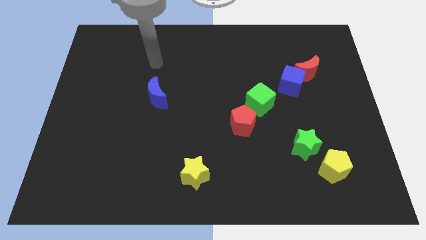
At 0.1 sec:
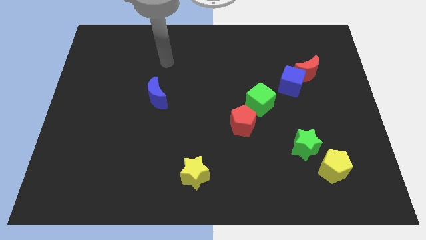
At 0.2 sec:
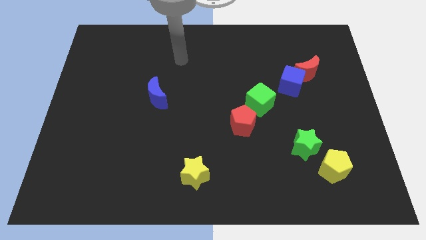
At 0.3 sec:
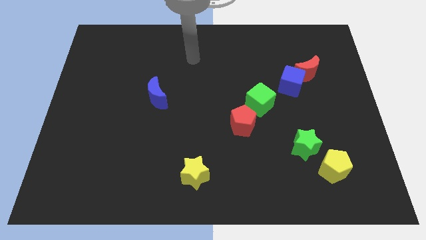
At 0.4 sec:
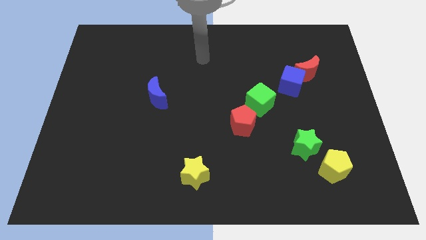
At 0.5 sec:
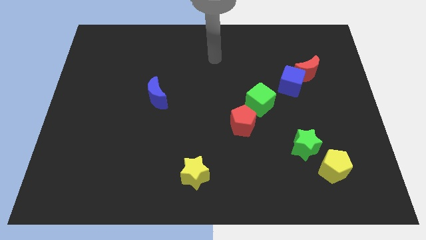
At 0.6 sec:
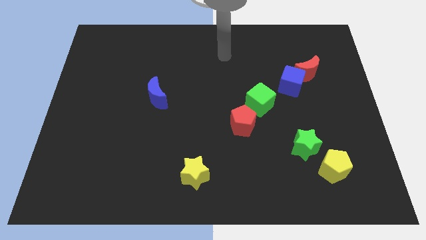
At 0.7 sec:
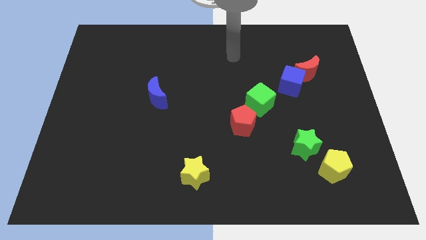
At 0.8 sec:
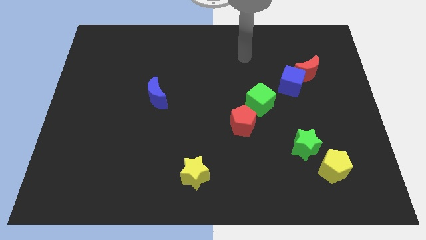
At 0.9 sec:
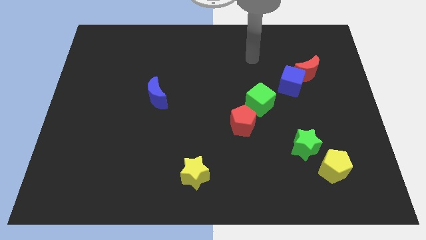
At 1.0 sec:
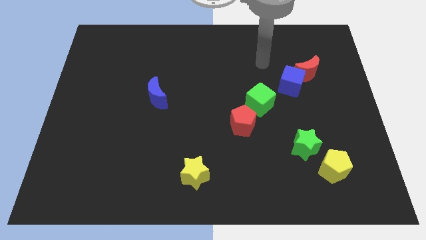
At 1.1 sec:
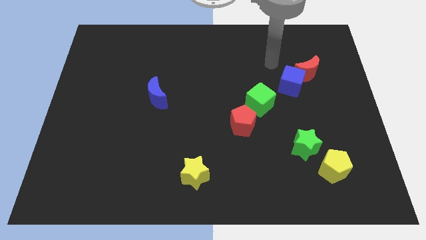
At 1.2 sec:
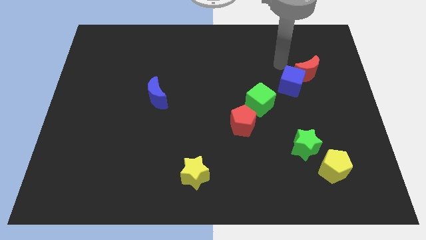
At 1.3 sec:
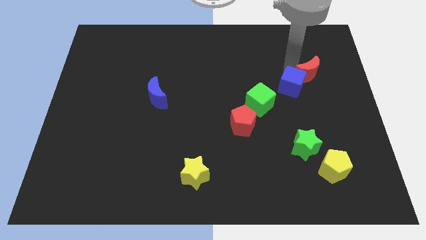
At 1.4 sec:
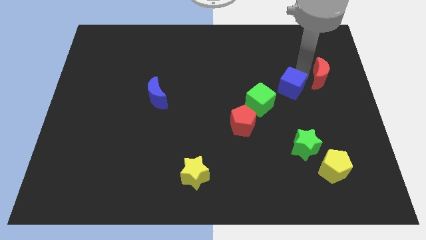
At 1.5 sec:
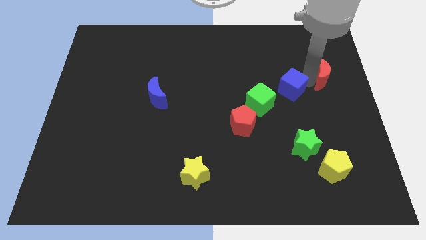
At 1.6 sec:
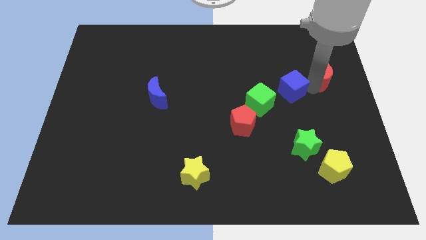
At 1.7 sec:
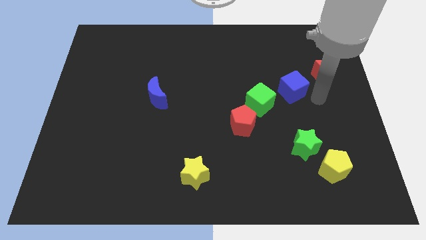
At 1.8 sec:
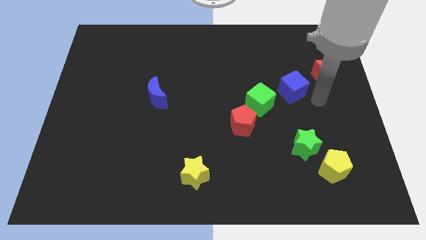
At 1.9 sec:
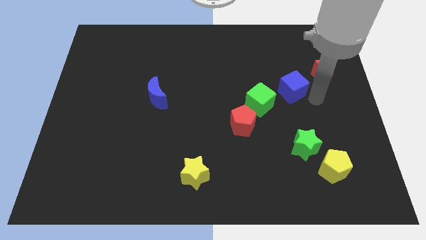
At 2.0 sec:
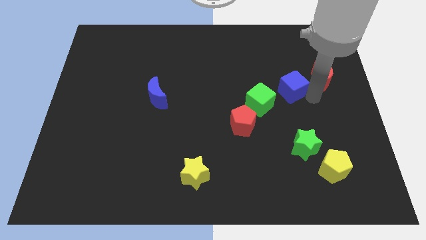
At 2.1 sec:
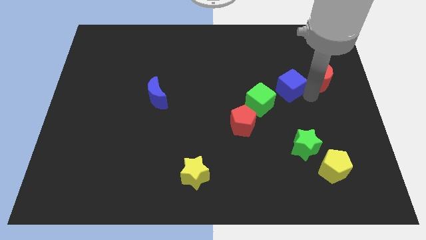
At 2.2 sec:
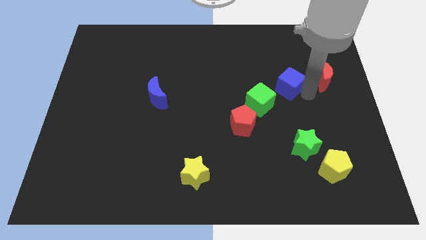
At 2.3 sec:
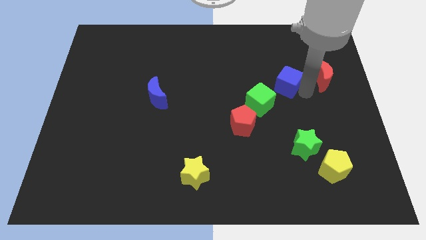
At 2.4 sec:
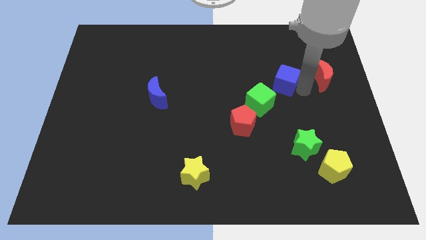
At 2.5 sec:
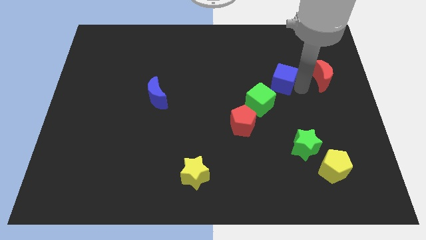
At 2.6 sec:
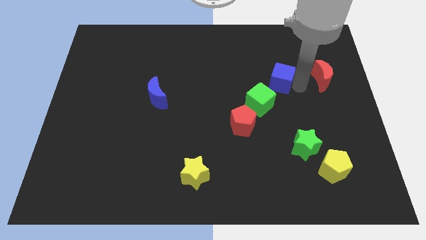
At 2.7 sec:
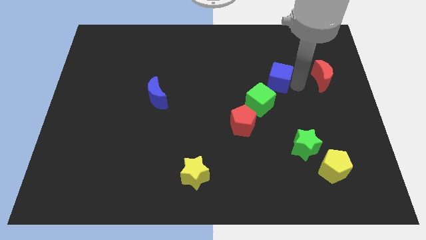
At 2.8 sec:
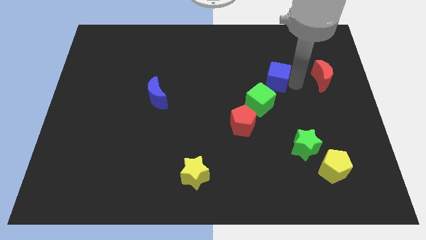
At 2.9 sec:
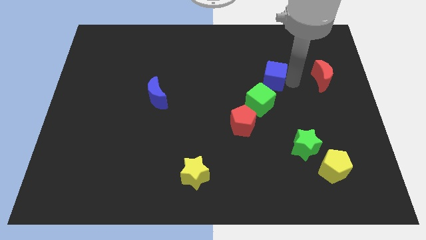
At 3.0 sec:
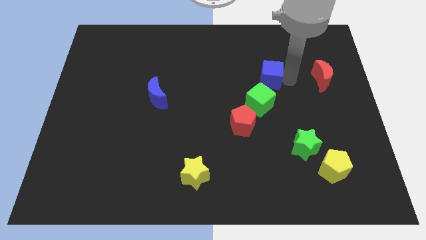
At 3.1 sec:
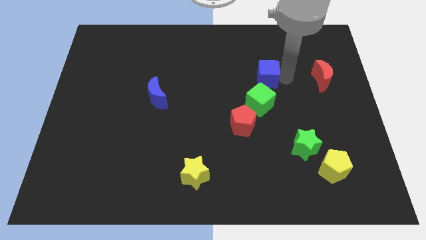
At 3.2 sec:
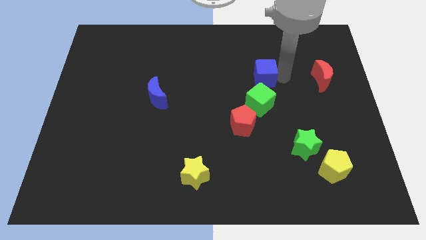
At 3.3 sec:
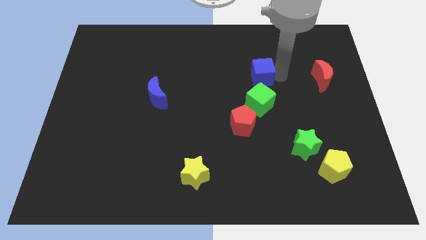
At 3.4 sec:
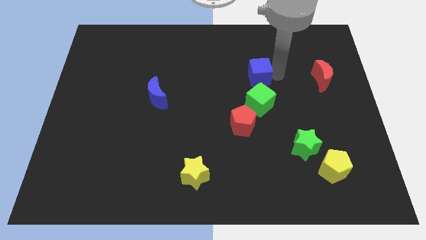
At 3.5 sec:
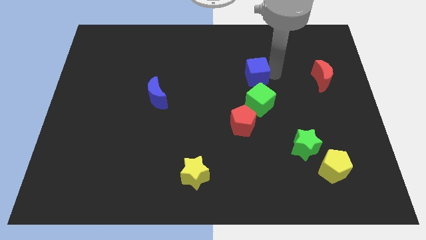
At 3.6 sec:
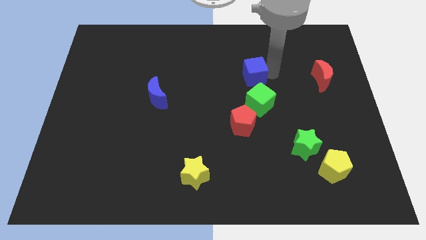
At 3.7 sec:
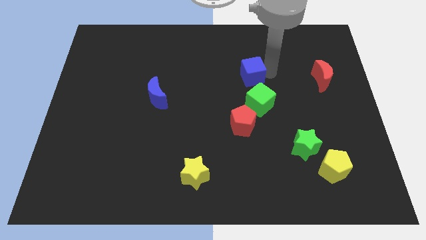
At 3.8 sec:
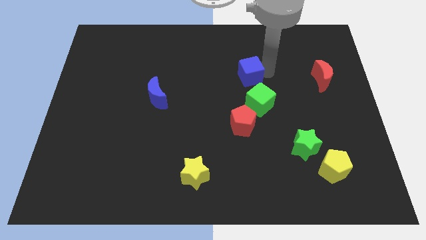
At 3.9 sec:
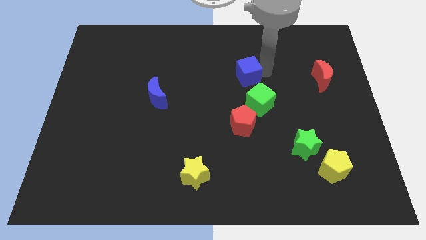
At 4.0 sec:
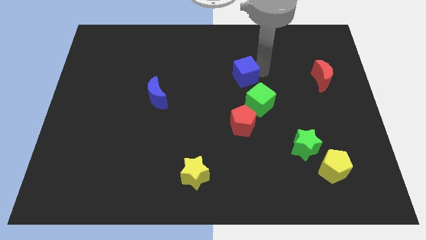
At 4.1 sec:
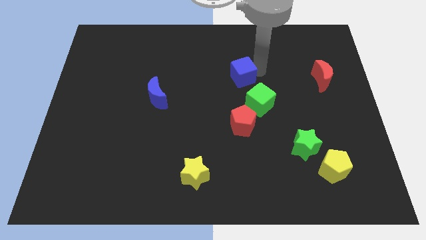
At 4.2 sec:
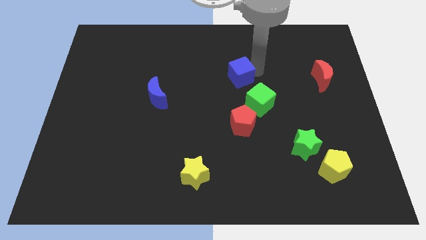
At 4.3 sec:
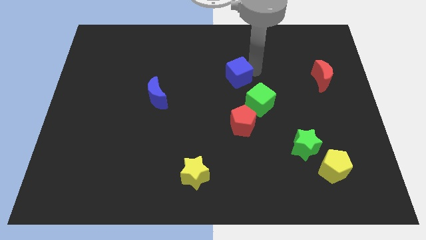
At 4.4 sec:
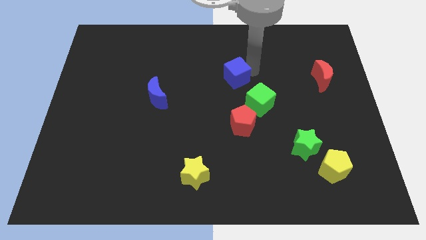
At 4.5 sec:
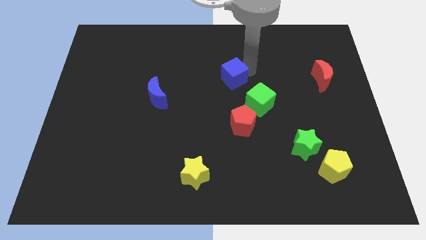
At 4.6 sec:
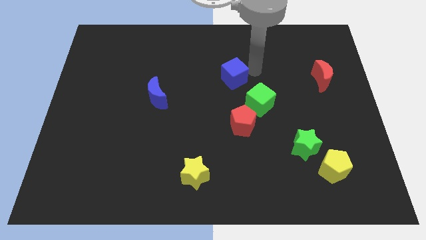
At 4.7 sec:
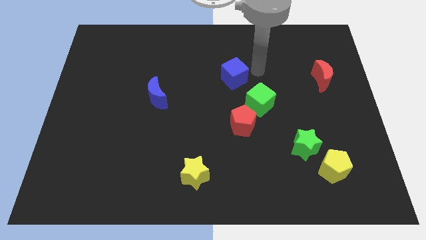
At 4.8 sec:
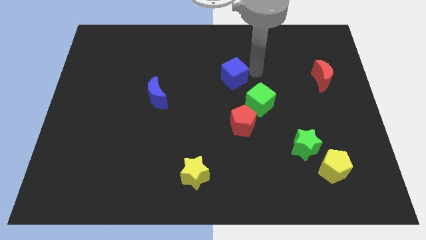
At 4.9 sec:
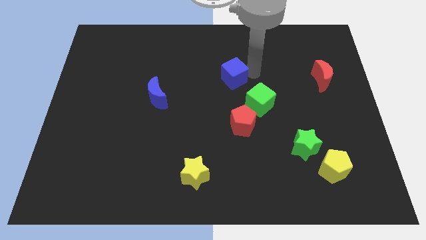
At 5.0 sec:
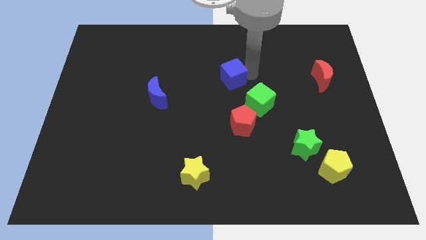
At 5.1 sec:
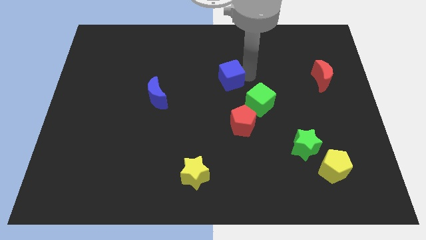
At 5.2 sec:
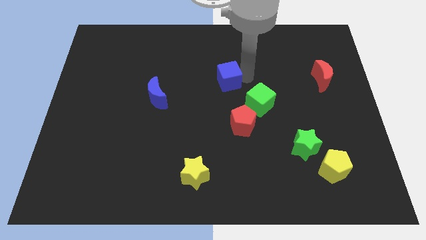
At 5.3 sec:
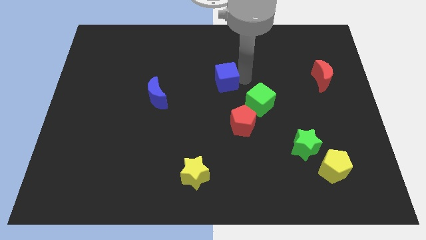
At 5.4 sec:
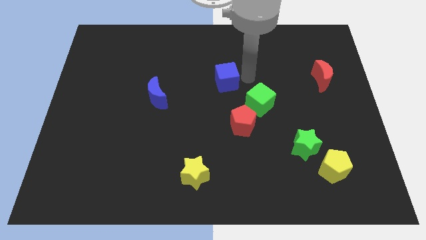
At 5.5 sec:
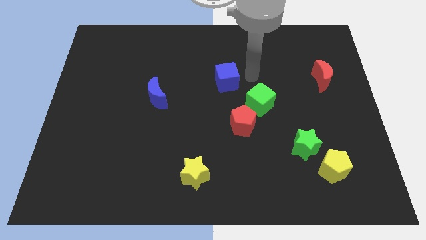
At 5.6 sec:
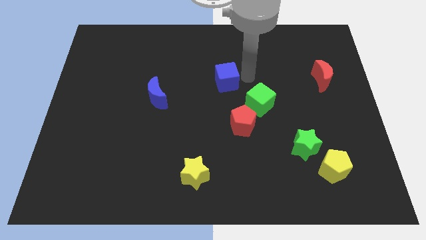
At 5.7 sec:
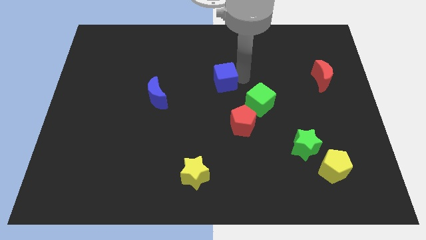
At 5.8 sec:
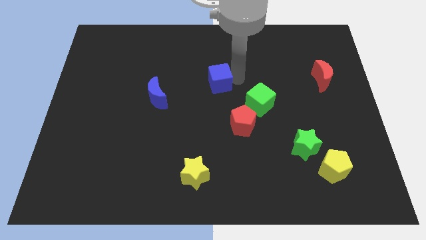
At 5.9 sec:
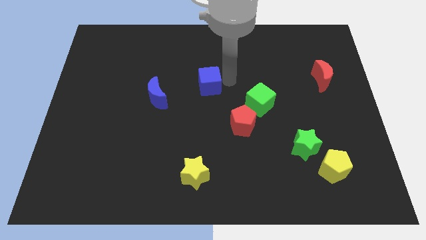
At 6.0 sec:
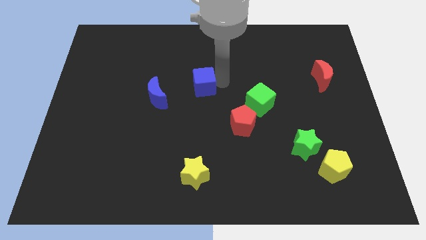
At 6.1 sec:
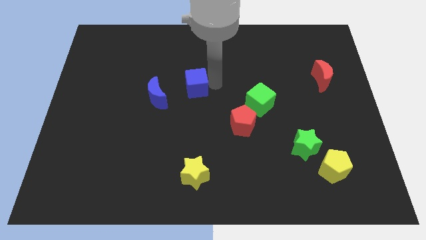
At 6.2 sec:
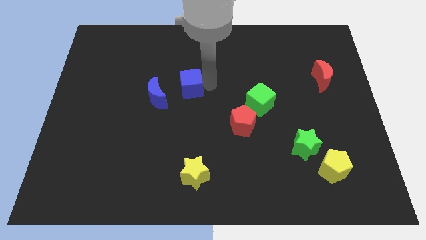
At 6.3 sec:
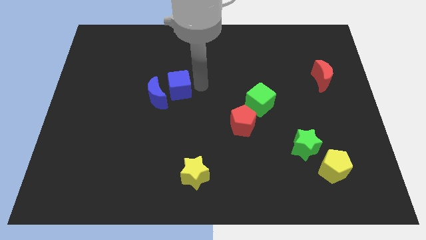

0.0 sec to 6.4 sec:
push the blue cube towards the blue moon

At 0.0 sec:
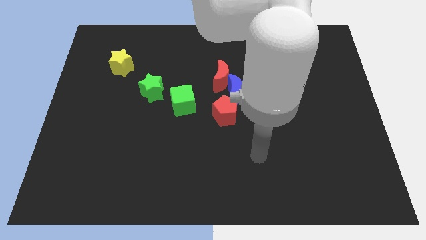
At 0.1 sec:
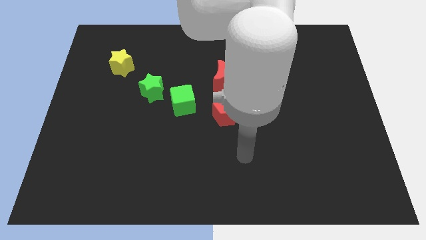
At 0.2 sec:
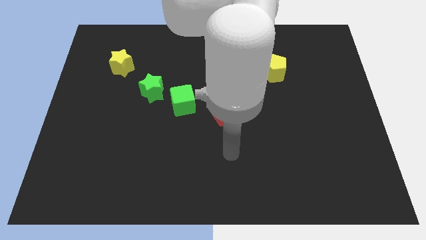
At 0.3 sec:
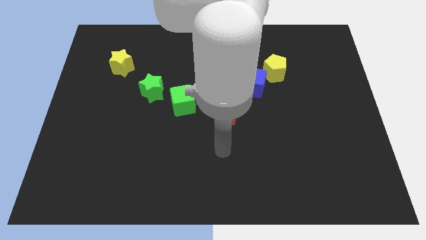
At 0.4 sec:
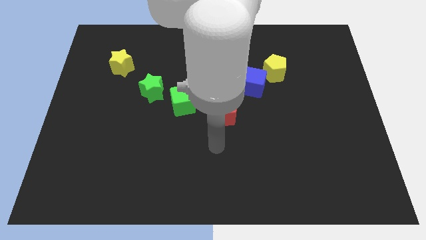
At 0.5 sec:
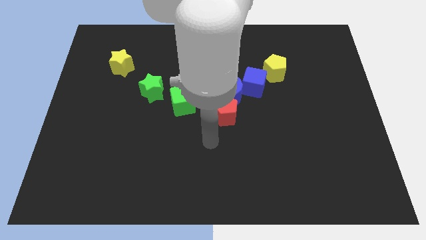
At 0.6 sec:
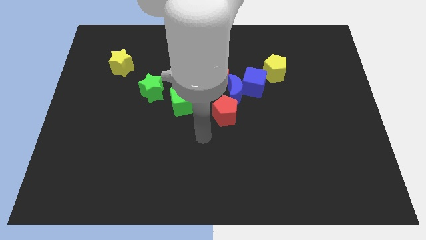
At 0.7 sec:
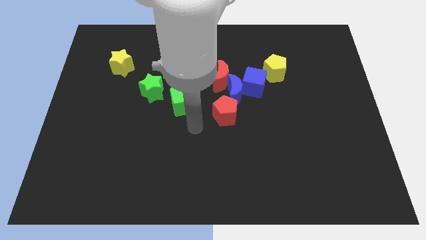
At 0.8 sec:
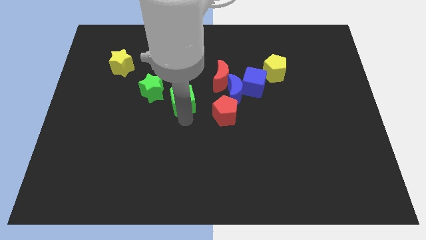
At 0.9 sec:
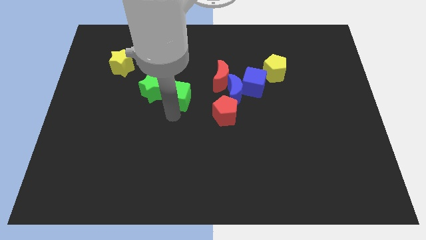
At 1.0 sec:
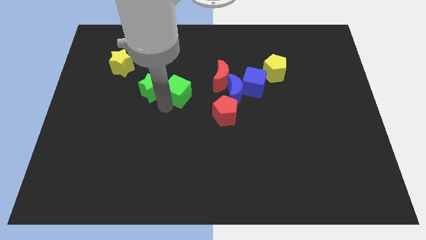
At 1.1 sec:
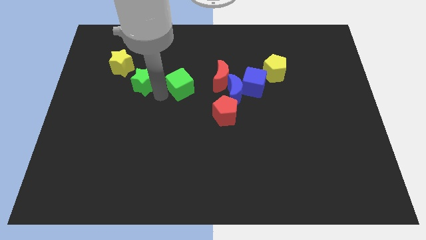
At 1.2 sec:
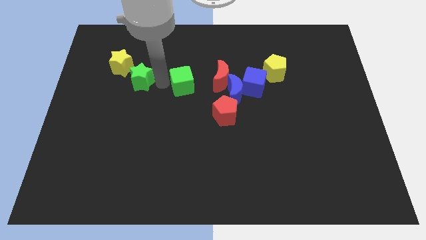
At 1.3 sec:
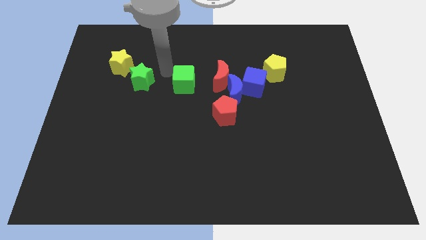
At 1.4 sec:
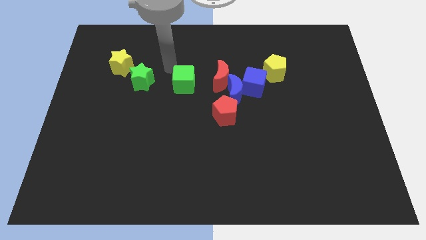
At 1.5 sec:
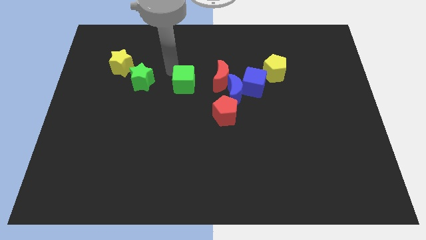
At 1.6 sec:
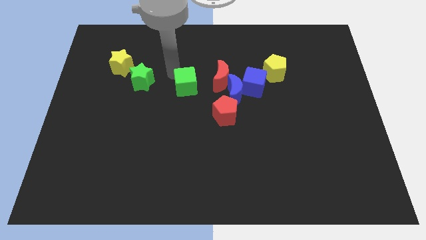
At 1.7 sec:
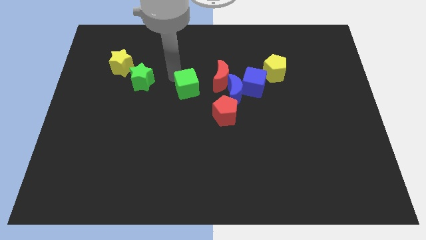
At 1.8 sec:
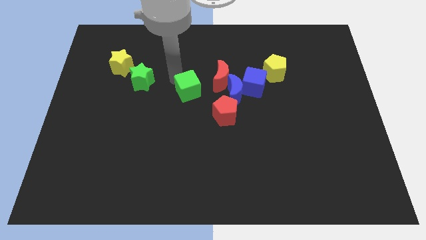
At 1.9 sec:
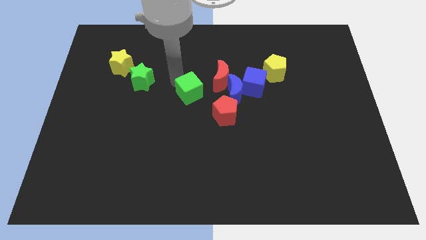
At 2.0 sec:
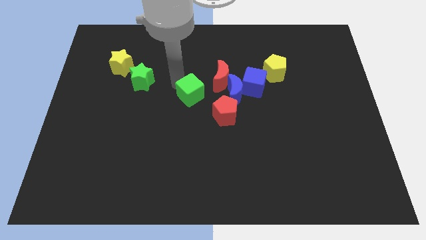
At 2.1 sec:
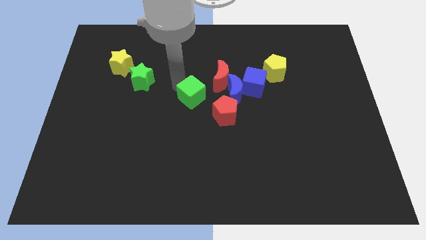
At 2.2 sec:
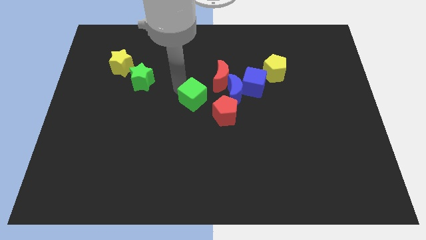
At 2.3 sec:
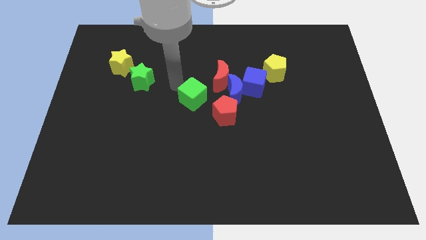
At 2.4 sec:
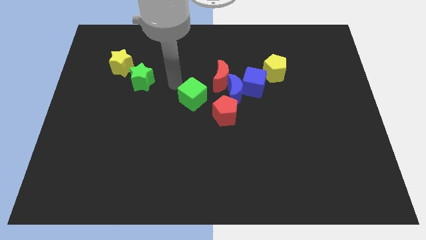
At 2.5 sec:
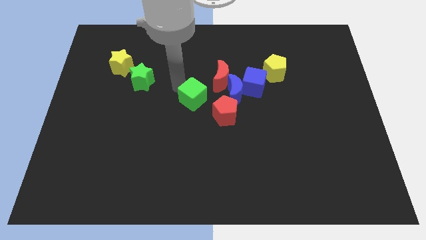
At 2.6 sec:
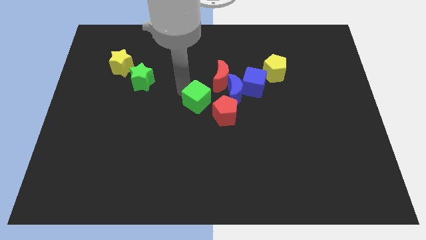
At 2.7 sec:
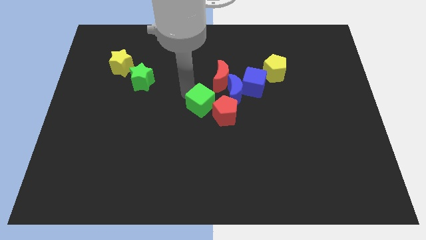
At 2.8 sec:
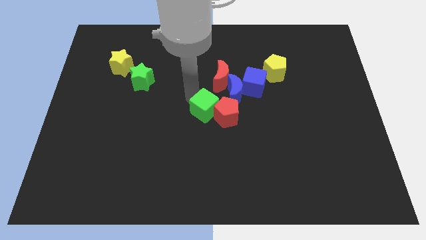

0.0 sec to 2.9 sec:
put the green cube towards the red pentagon
